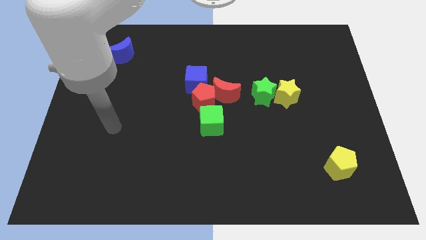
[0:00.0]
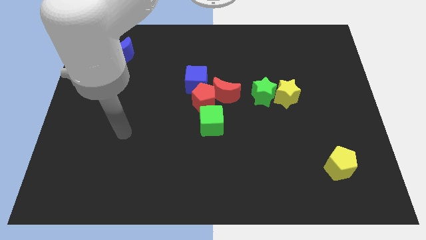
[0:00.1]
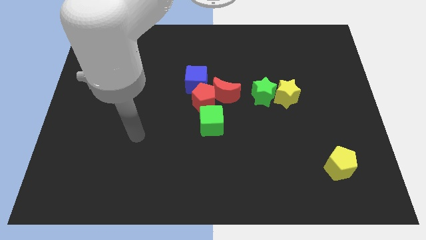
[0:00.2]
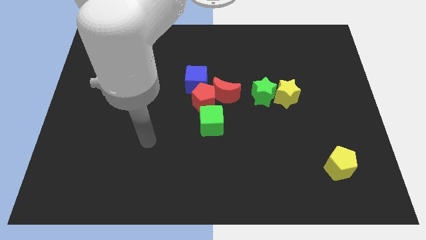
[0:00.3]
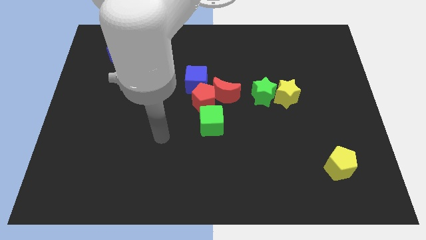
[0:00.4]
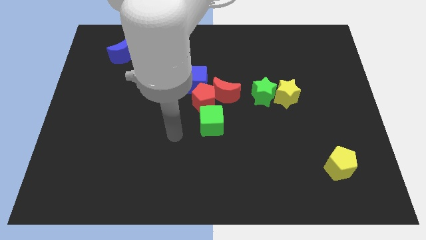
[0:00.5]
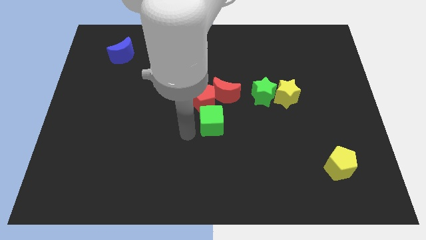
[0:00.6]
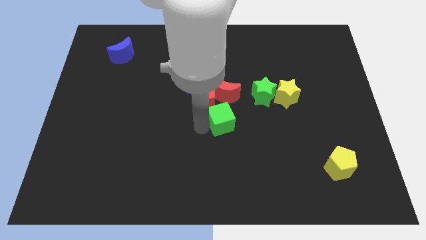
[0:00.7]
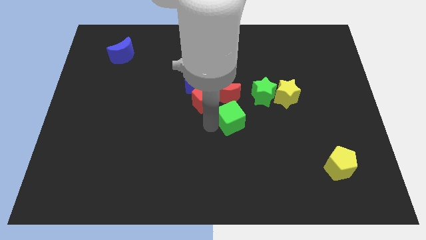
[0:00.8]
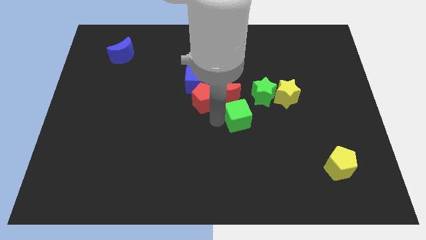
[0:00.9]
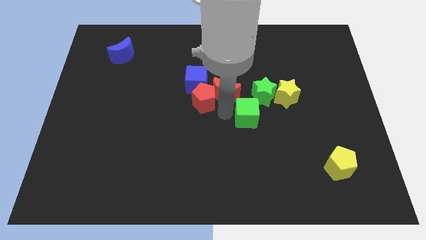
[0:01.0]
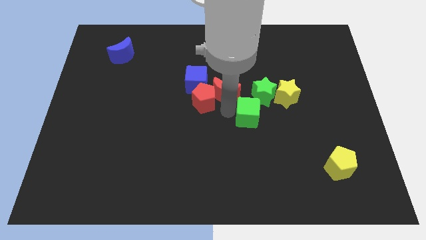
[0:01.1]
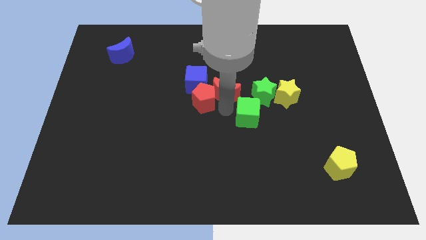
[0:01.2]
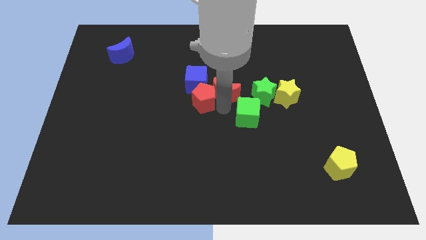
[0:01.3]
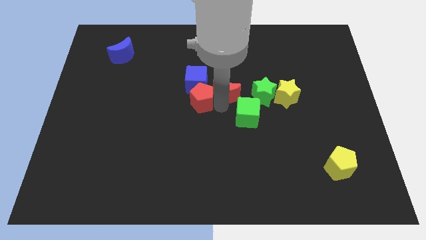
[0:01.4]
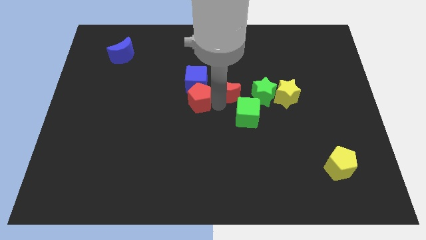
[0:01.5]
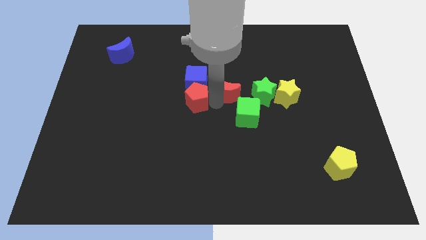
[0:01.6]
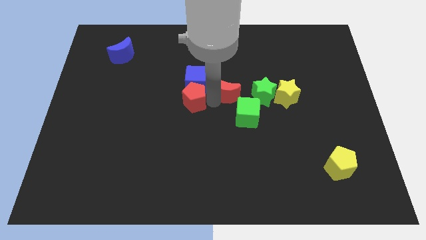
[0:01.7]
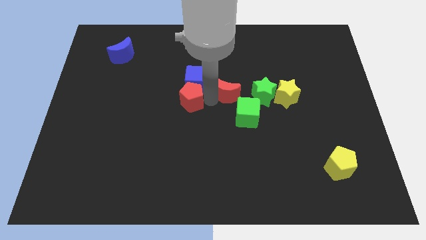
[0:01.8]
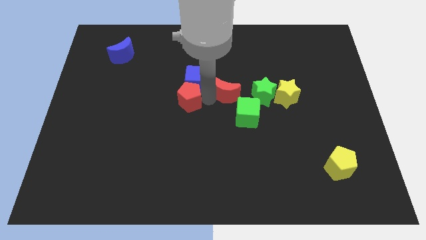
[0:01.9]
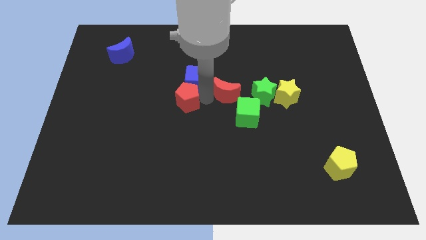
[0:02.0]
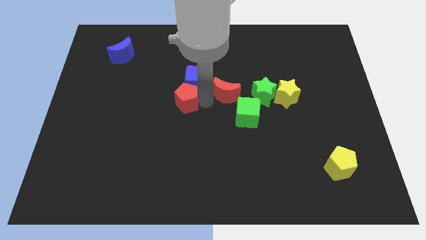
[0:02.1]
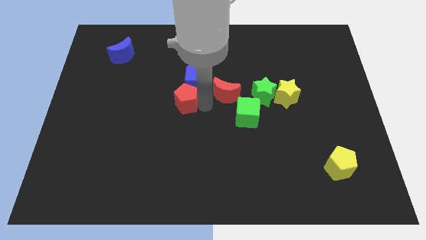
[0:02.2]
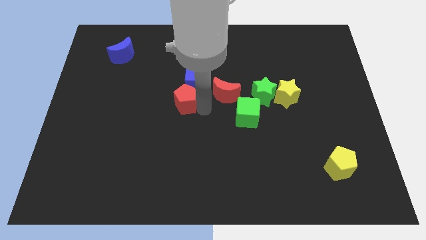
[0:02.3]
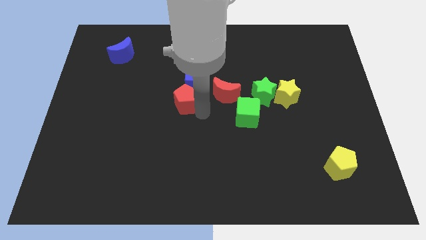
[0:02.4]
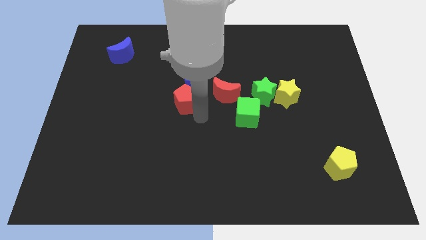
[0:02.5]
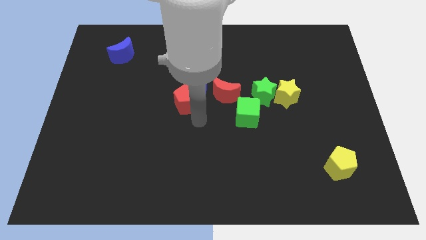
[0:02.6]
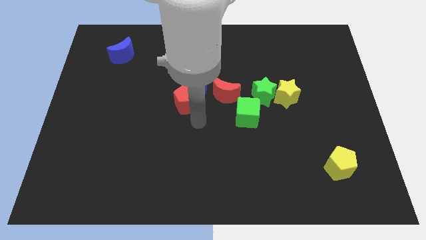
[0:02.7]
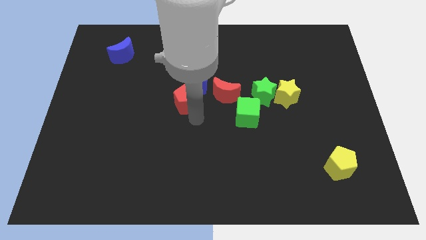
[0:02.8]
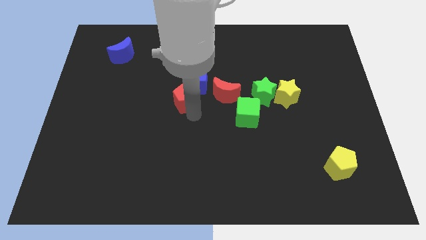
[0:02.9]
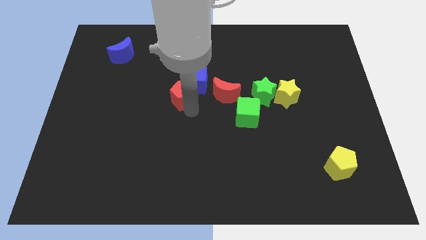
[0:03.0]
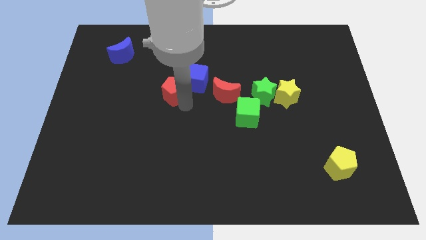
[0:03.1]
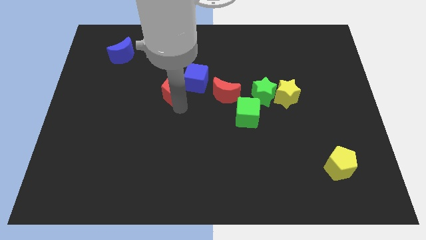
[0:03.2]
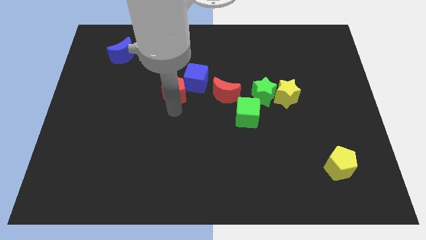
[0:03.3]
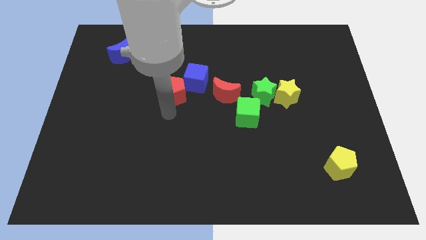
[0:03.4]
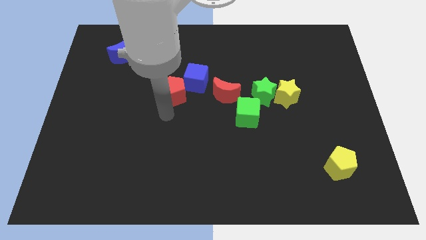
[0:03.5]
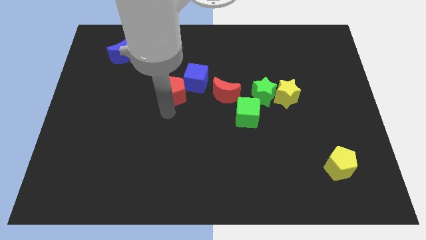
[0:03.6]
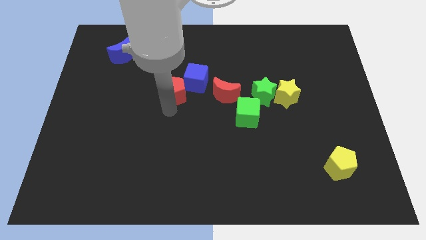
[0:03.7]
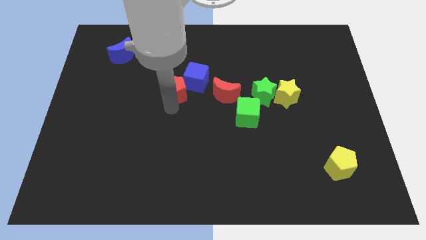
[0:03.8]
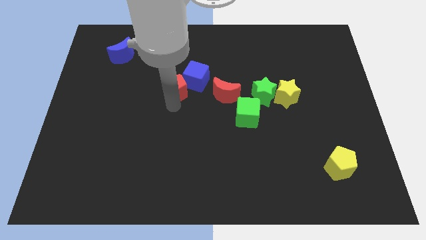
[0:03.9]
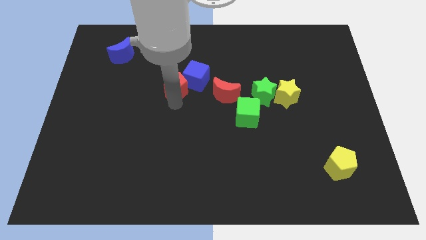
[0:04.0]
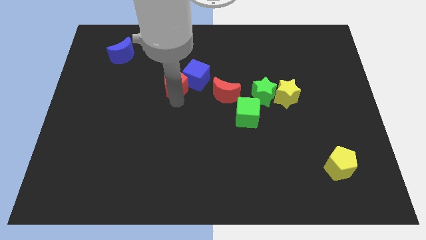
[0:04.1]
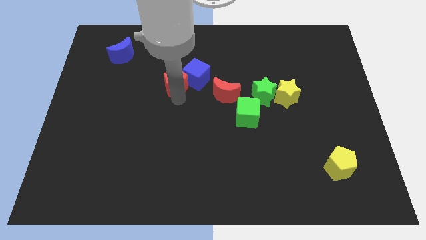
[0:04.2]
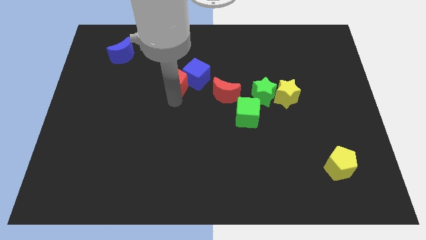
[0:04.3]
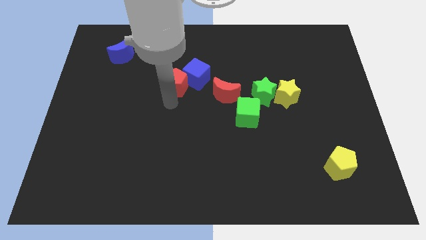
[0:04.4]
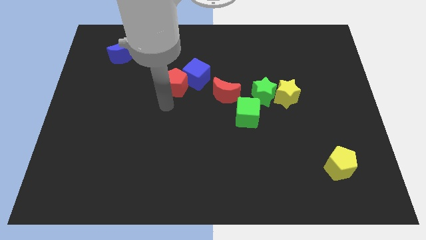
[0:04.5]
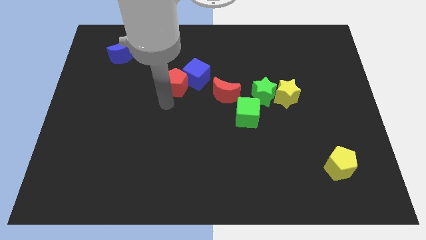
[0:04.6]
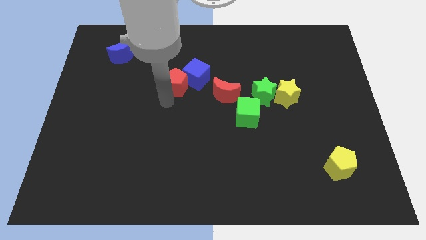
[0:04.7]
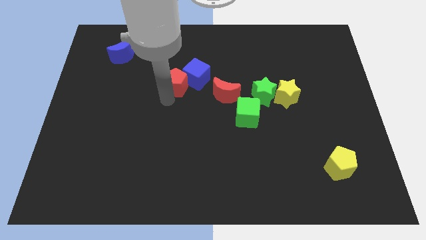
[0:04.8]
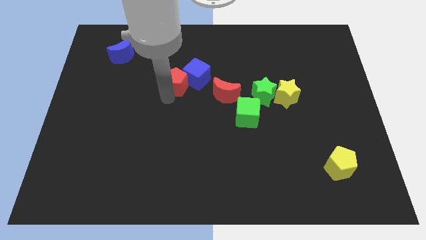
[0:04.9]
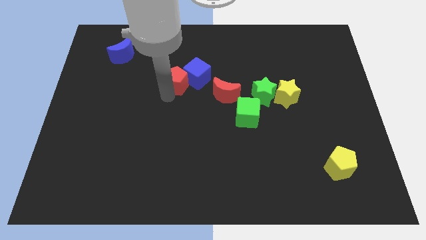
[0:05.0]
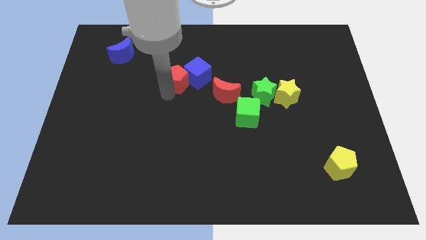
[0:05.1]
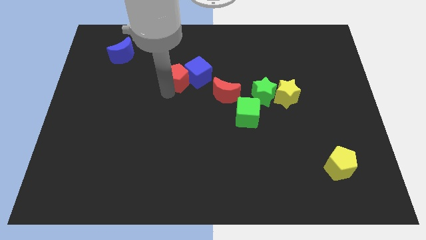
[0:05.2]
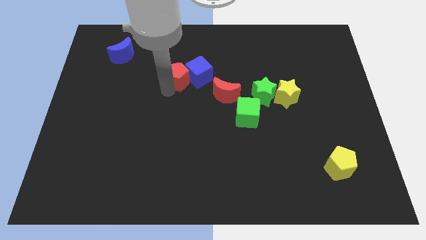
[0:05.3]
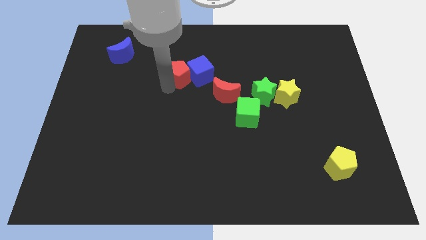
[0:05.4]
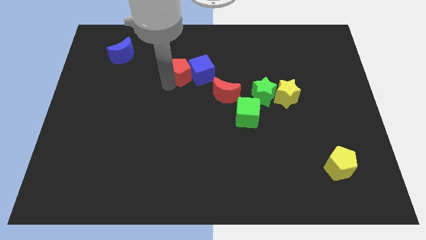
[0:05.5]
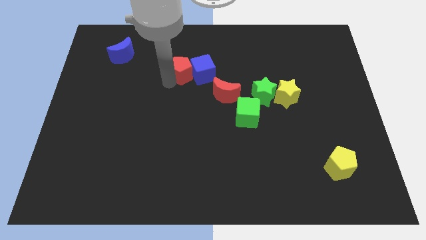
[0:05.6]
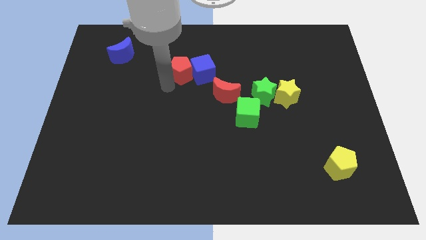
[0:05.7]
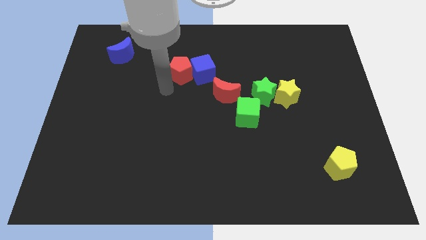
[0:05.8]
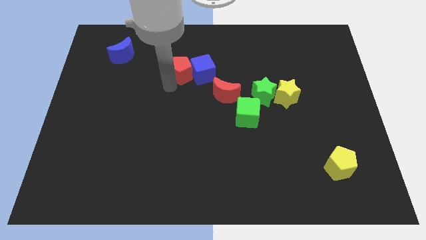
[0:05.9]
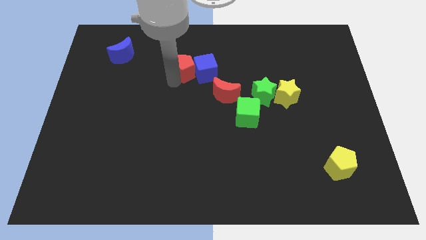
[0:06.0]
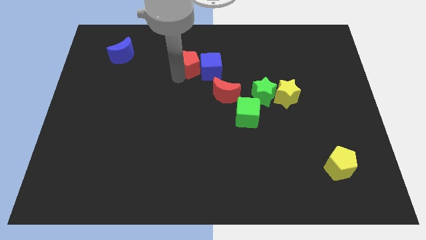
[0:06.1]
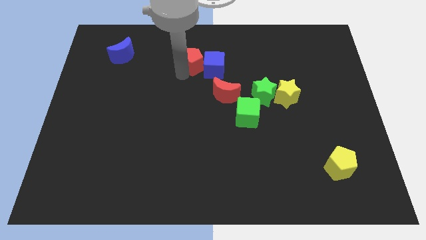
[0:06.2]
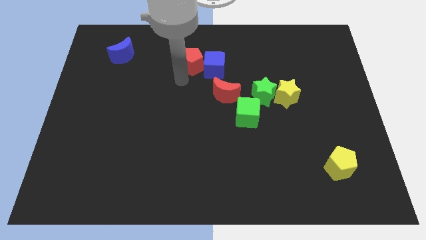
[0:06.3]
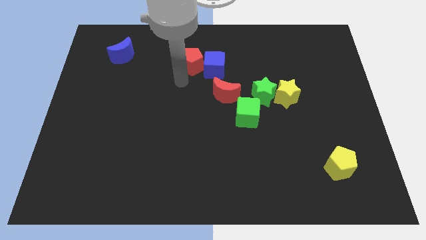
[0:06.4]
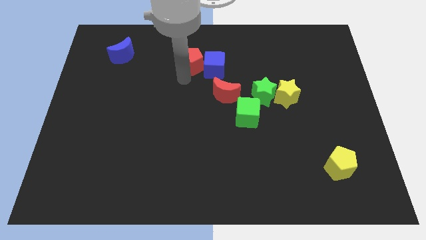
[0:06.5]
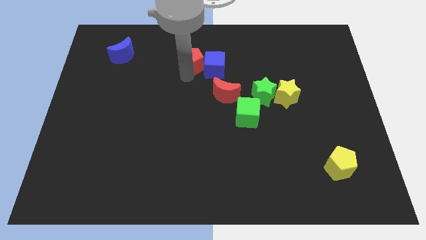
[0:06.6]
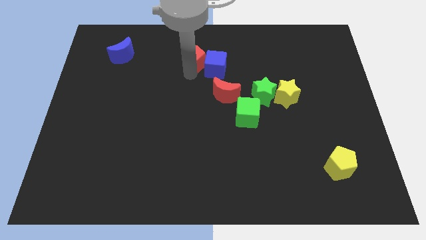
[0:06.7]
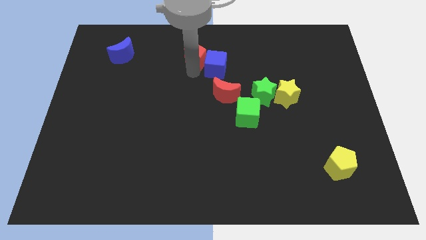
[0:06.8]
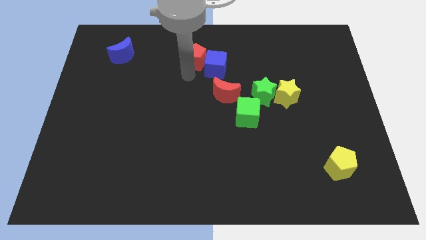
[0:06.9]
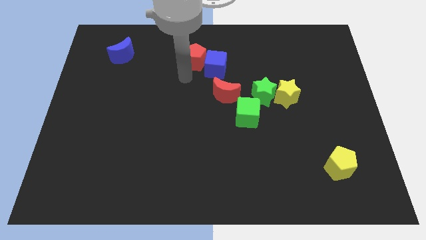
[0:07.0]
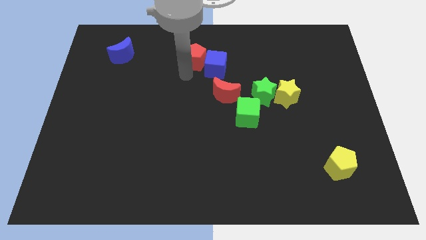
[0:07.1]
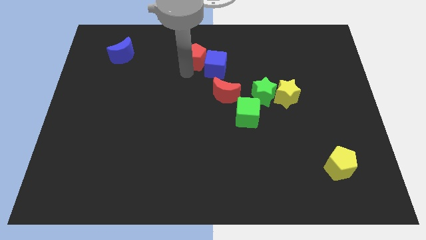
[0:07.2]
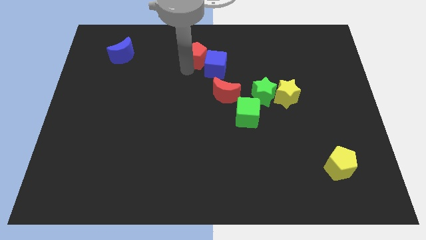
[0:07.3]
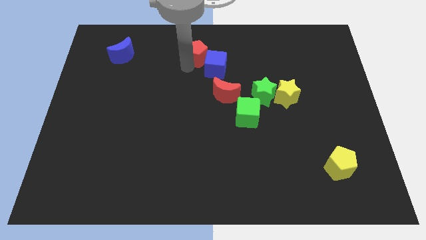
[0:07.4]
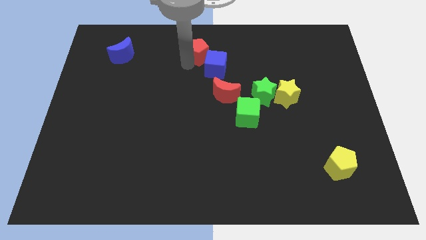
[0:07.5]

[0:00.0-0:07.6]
put the red pentagon to the top
